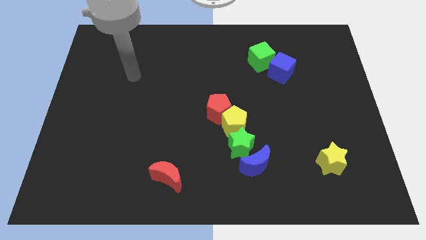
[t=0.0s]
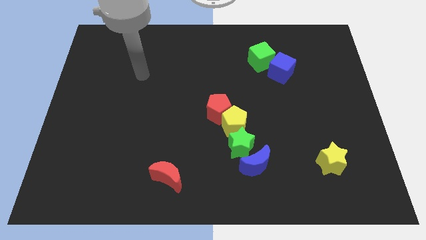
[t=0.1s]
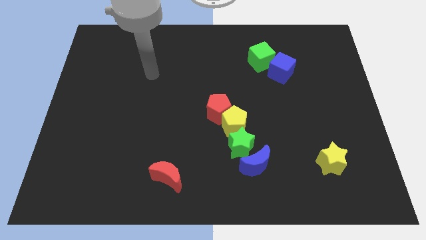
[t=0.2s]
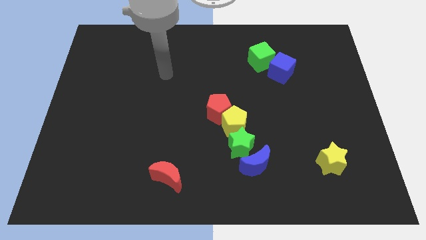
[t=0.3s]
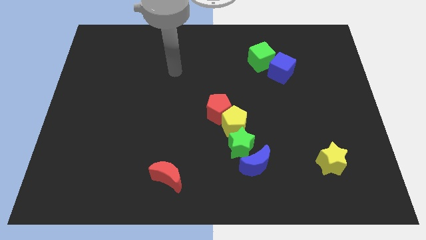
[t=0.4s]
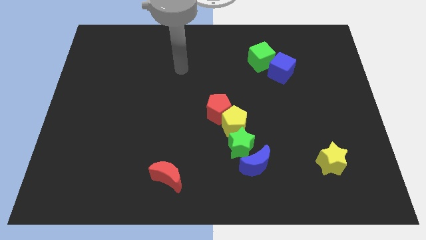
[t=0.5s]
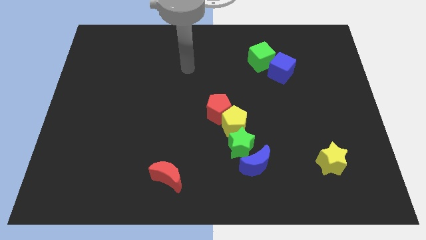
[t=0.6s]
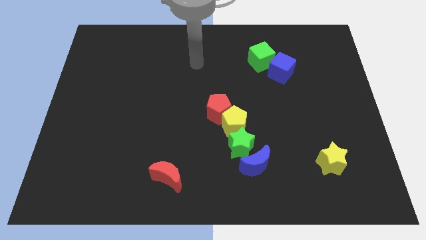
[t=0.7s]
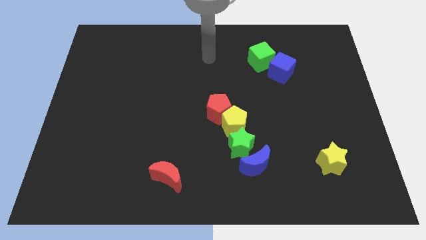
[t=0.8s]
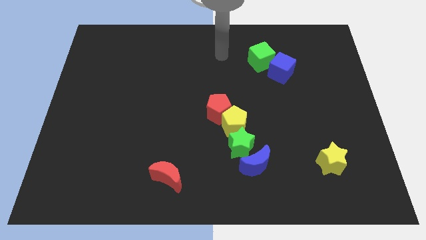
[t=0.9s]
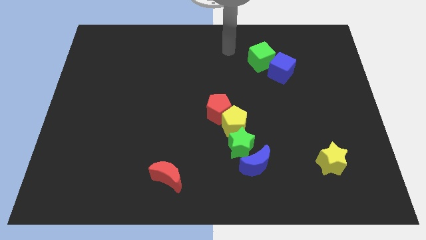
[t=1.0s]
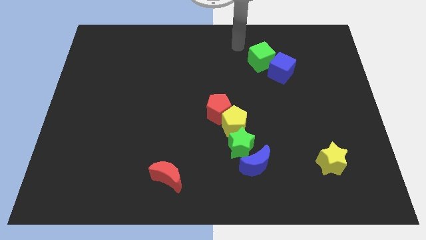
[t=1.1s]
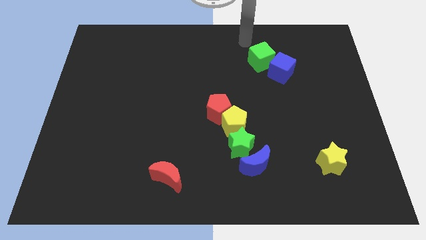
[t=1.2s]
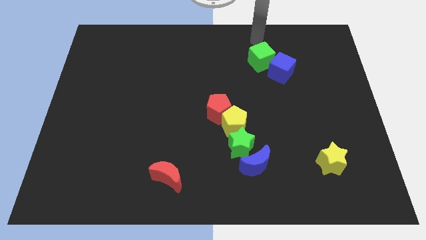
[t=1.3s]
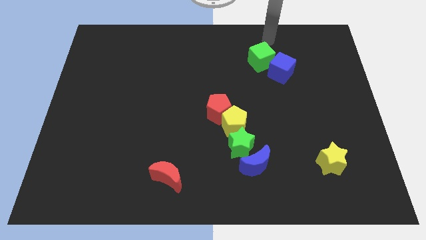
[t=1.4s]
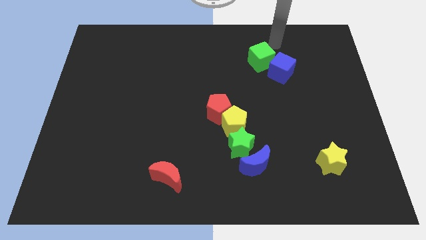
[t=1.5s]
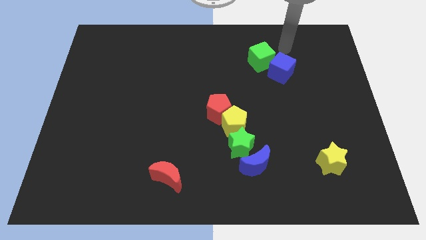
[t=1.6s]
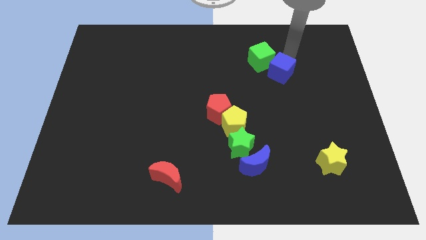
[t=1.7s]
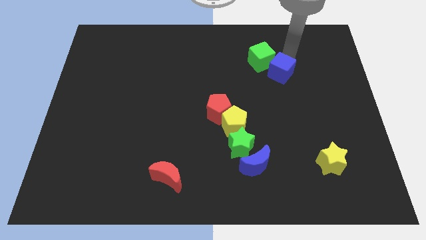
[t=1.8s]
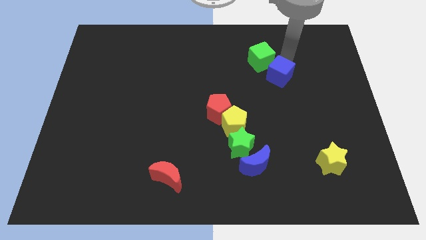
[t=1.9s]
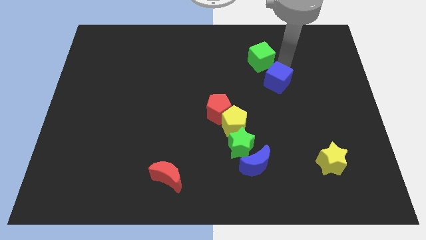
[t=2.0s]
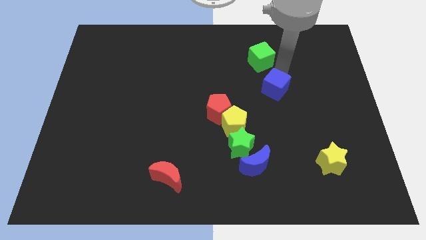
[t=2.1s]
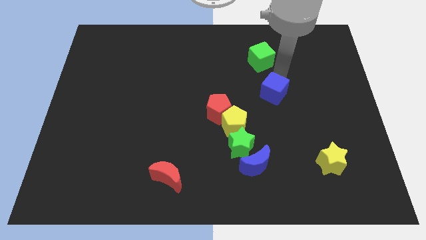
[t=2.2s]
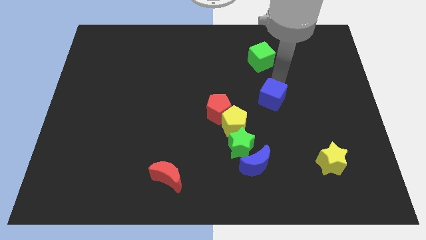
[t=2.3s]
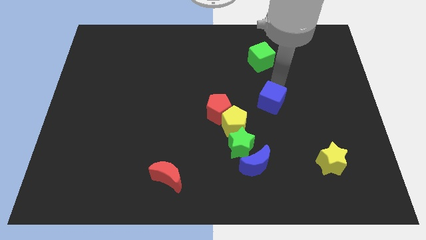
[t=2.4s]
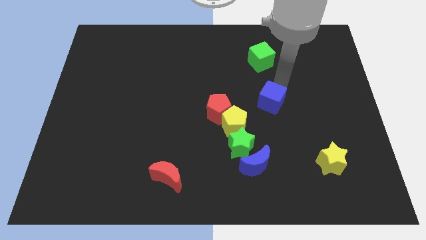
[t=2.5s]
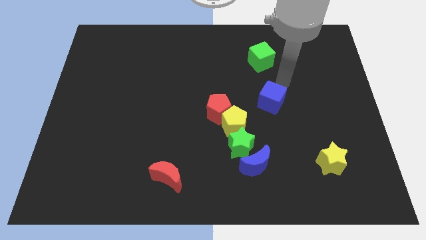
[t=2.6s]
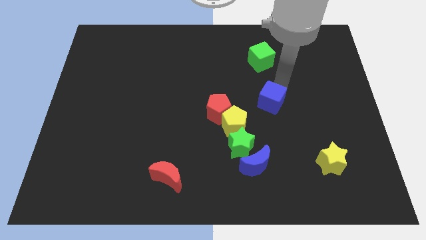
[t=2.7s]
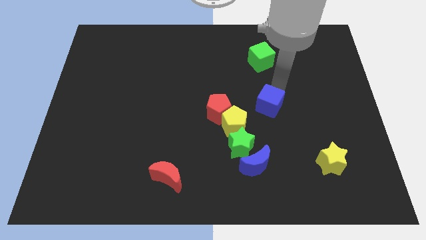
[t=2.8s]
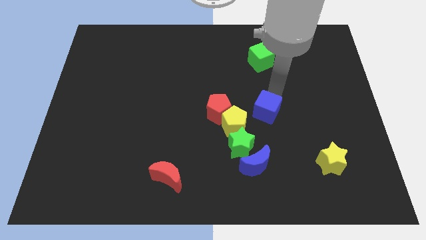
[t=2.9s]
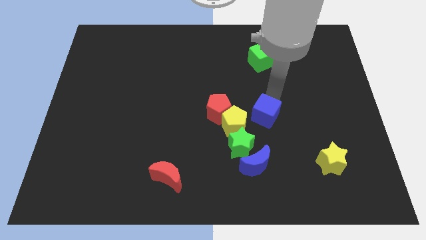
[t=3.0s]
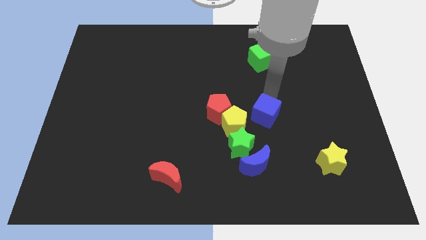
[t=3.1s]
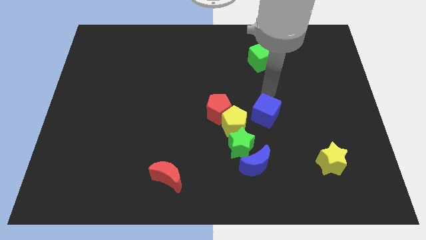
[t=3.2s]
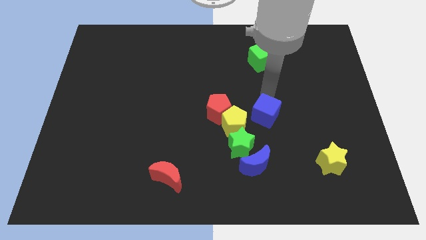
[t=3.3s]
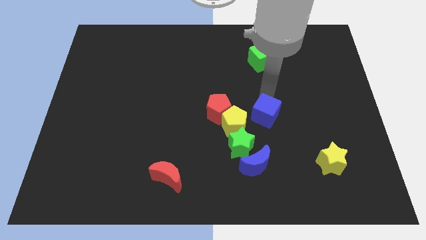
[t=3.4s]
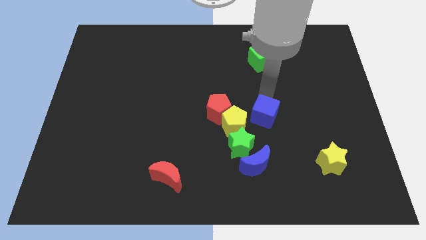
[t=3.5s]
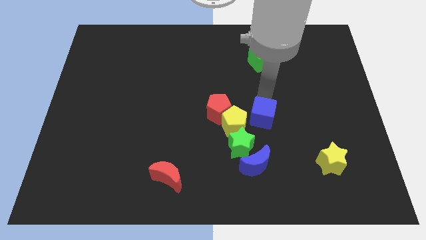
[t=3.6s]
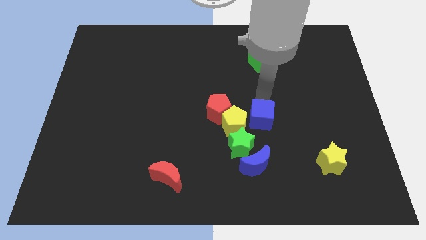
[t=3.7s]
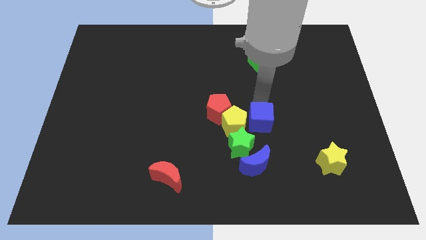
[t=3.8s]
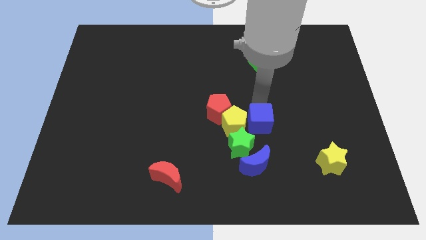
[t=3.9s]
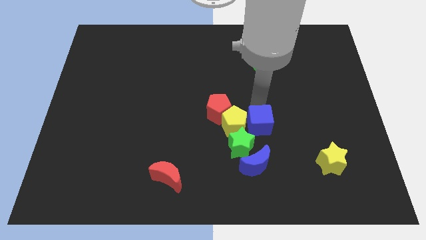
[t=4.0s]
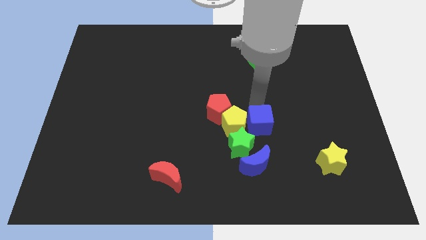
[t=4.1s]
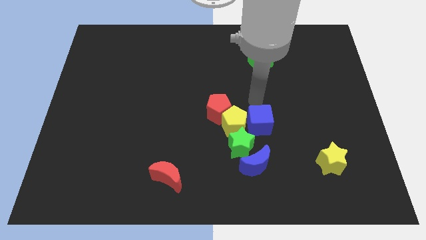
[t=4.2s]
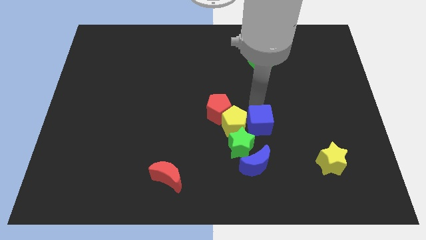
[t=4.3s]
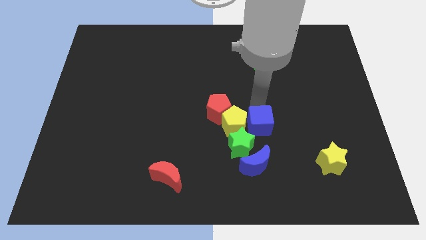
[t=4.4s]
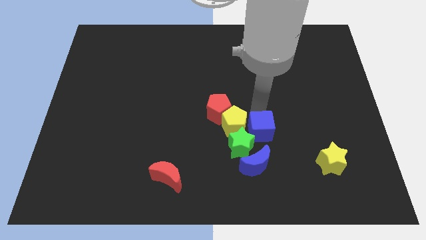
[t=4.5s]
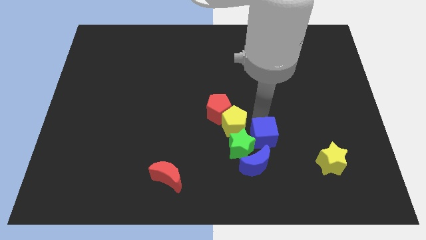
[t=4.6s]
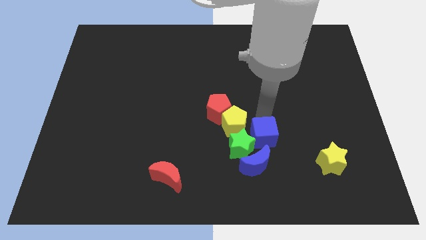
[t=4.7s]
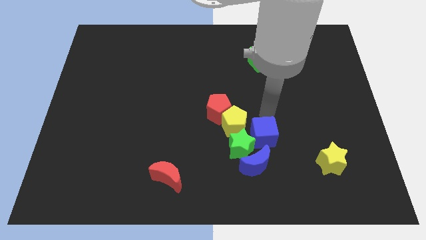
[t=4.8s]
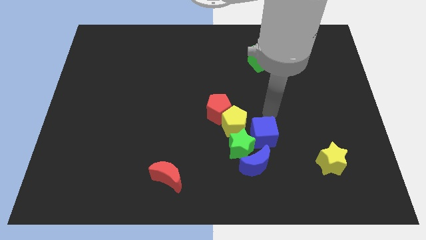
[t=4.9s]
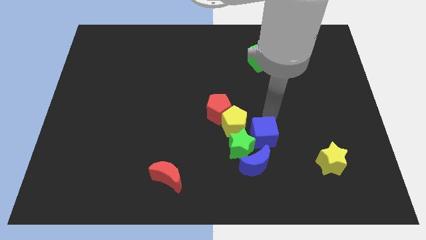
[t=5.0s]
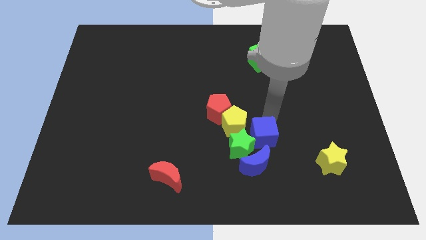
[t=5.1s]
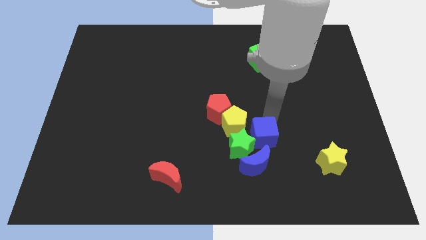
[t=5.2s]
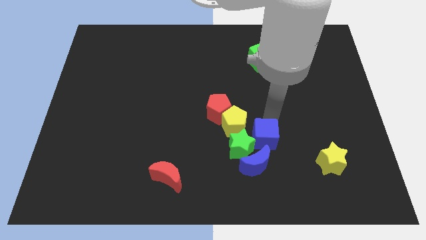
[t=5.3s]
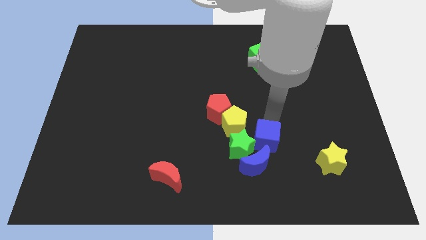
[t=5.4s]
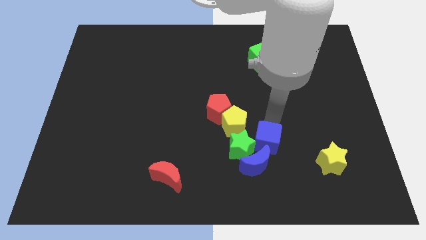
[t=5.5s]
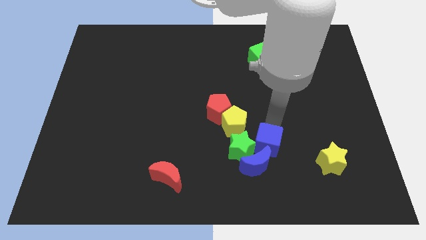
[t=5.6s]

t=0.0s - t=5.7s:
move the blue cube next to the blue moon

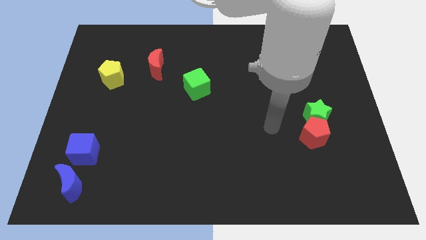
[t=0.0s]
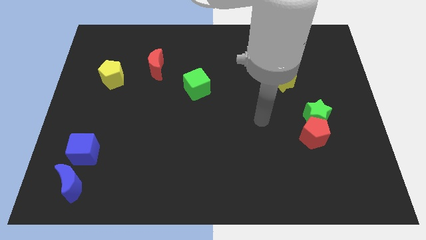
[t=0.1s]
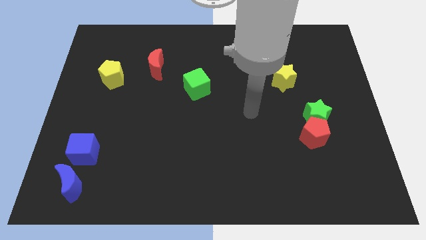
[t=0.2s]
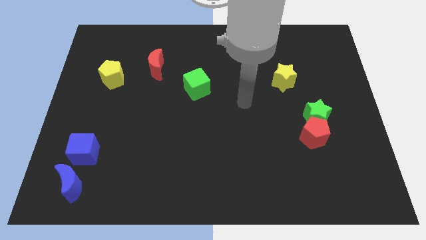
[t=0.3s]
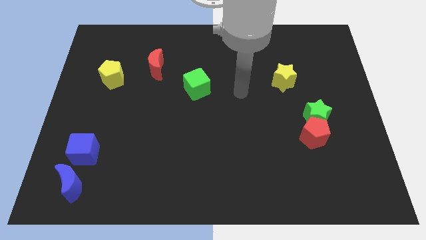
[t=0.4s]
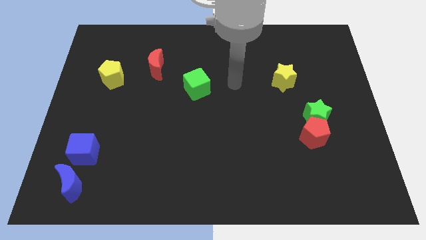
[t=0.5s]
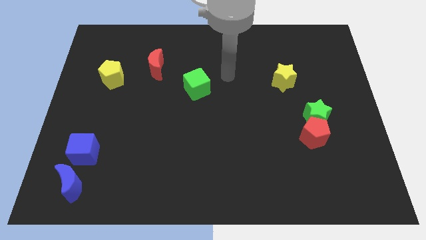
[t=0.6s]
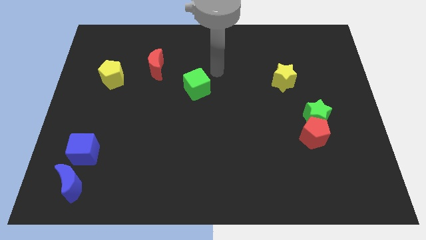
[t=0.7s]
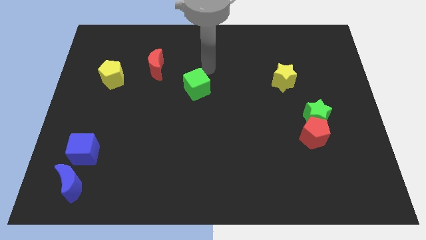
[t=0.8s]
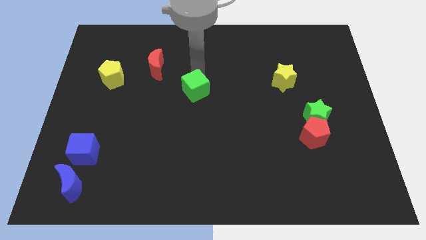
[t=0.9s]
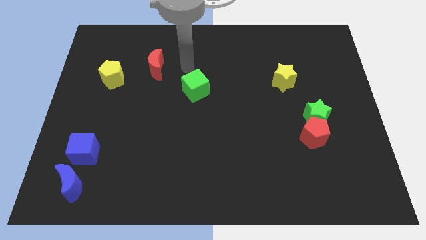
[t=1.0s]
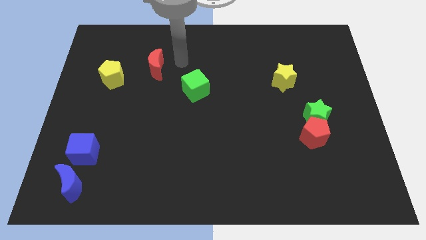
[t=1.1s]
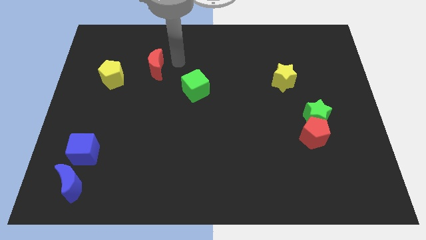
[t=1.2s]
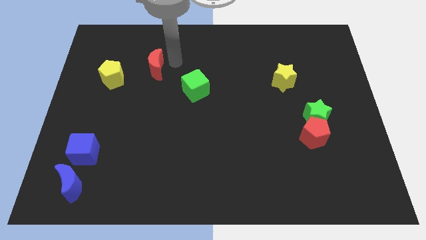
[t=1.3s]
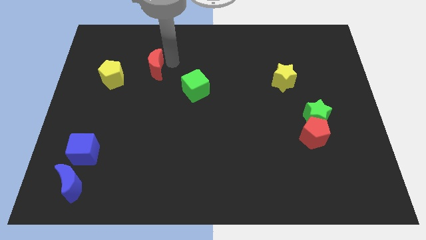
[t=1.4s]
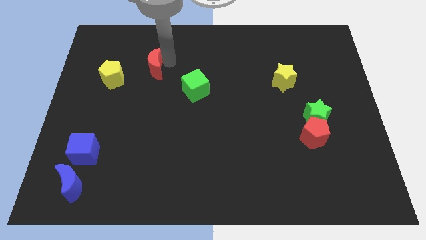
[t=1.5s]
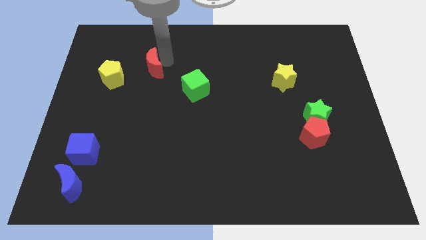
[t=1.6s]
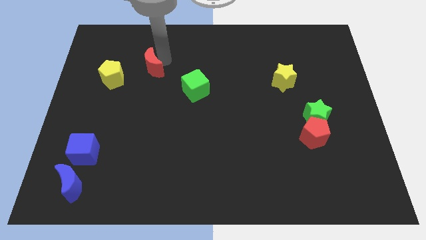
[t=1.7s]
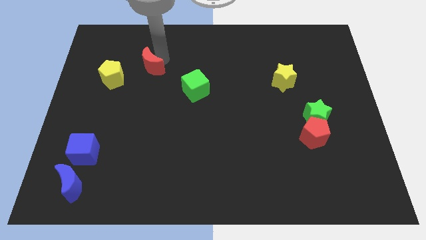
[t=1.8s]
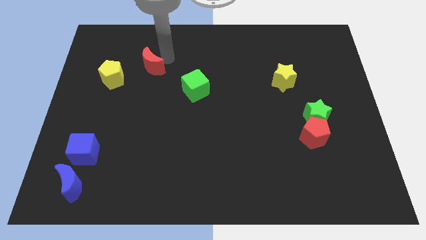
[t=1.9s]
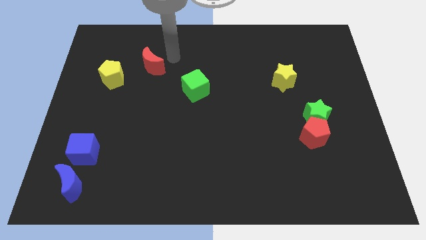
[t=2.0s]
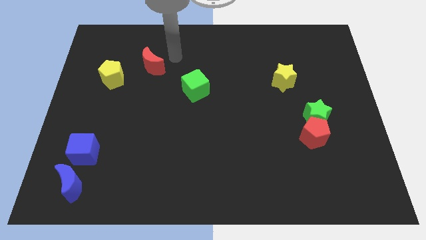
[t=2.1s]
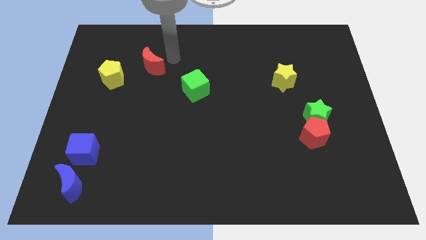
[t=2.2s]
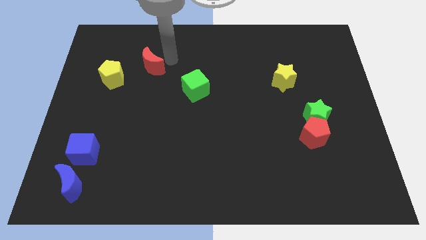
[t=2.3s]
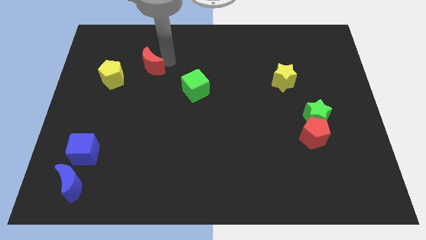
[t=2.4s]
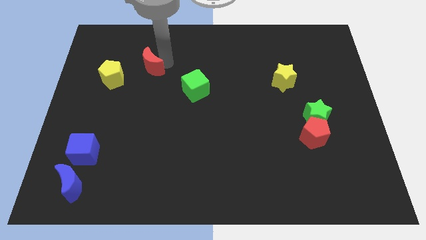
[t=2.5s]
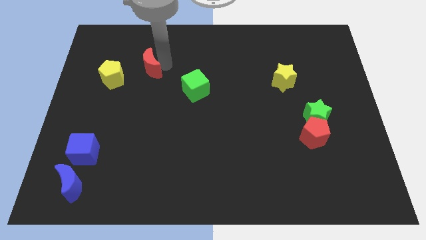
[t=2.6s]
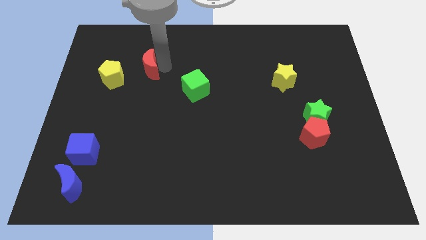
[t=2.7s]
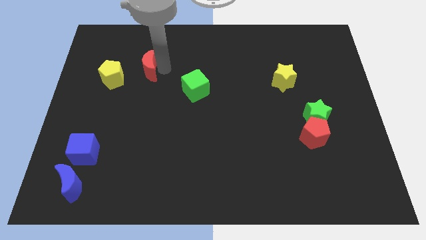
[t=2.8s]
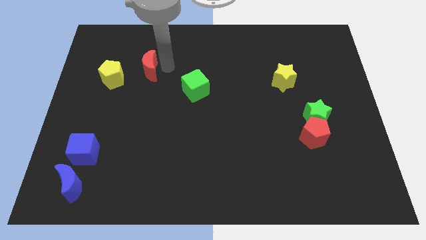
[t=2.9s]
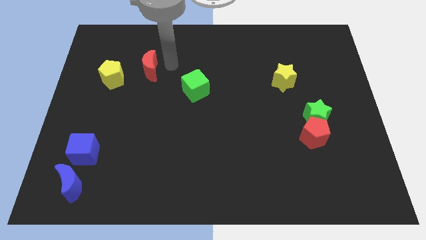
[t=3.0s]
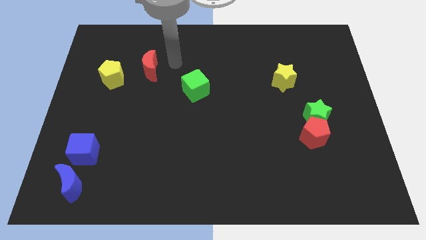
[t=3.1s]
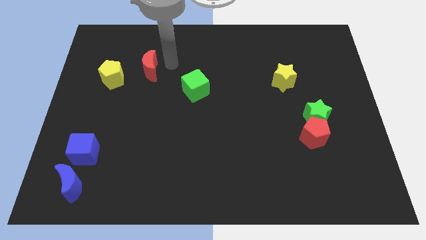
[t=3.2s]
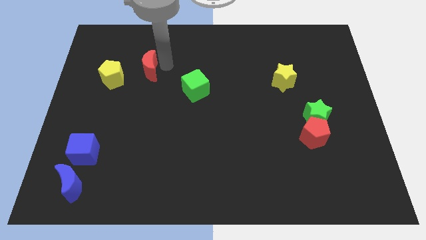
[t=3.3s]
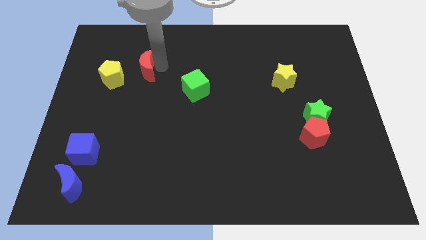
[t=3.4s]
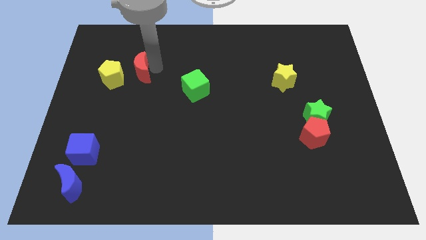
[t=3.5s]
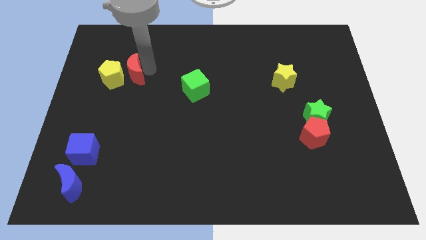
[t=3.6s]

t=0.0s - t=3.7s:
push the red moon to the yellow pentagon
